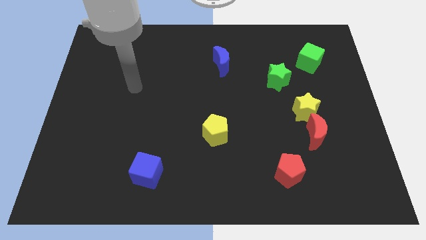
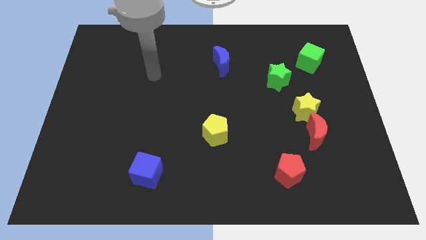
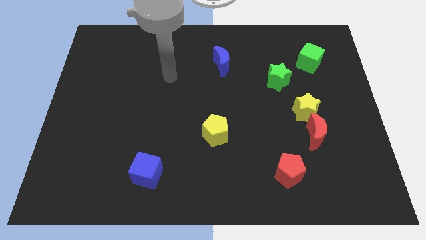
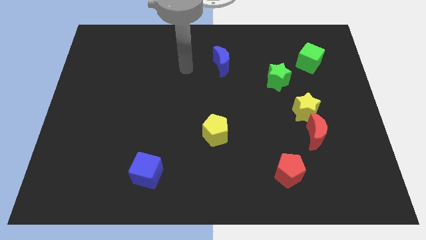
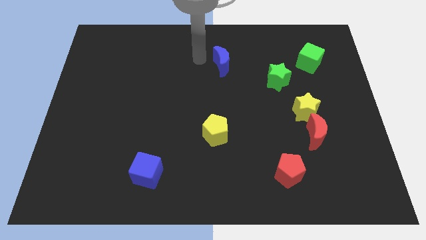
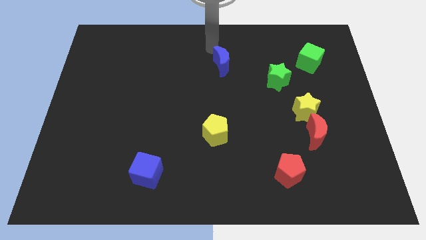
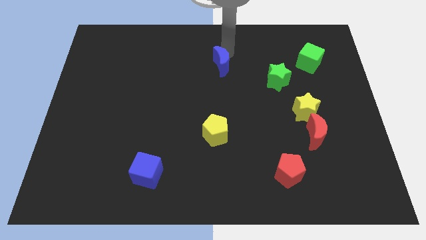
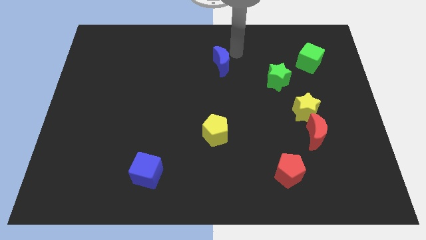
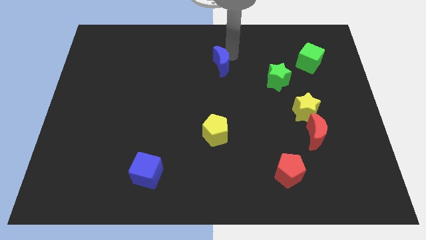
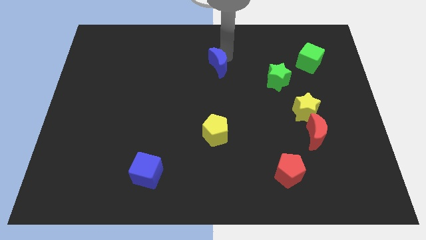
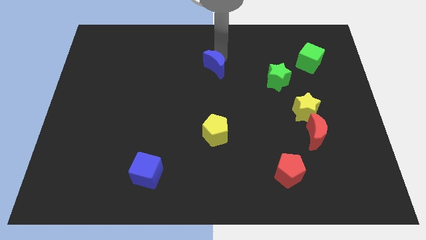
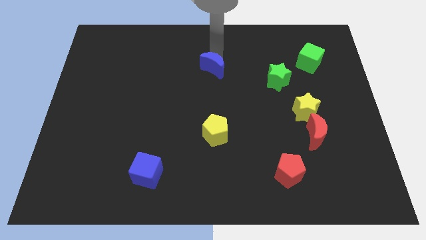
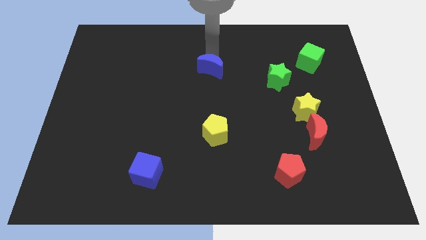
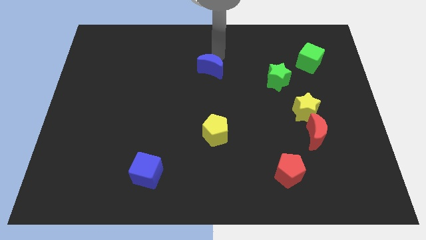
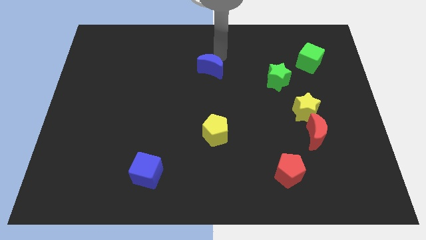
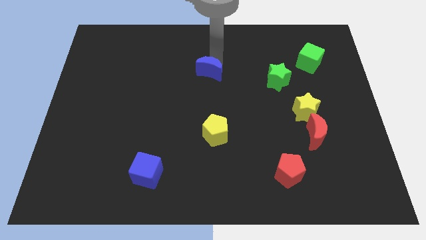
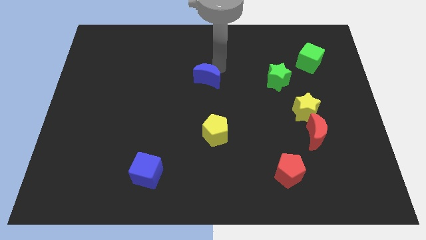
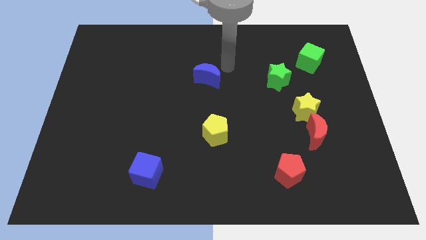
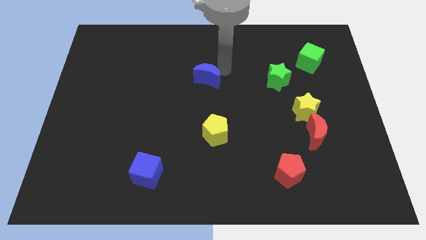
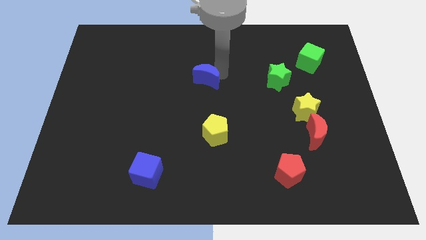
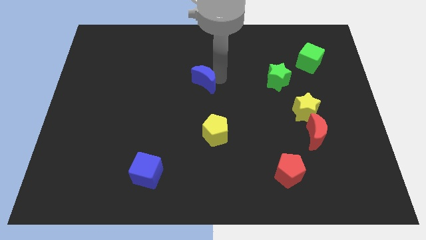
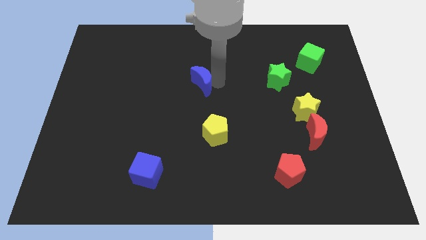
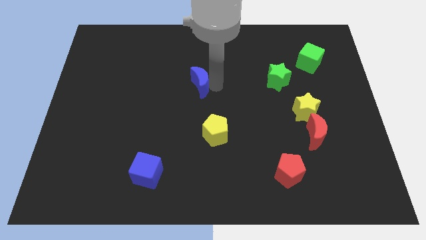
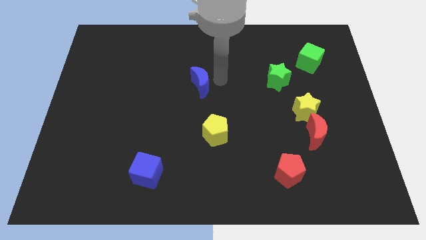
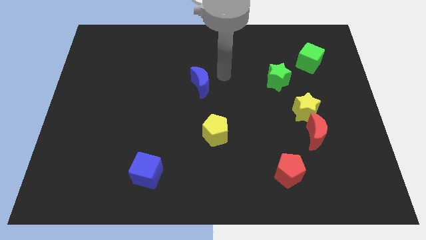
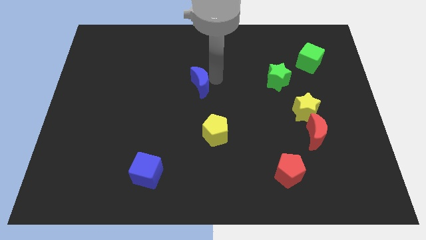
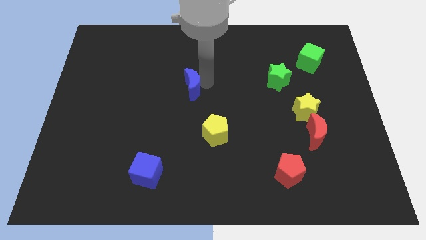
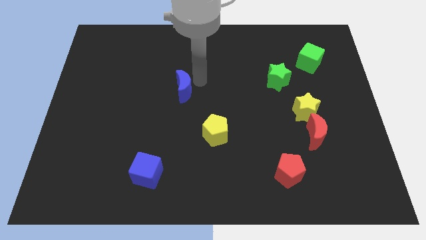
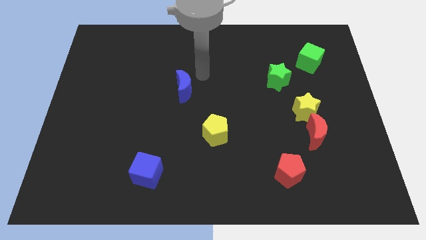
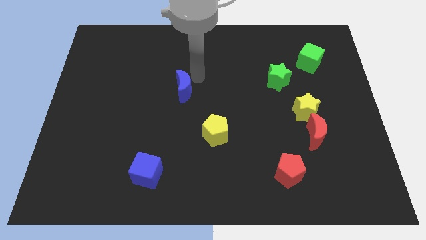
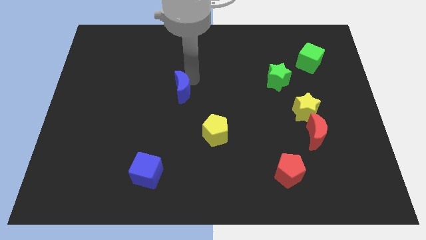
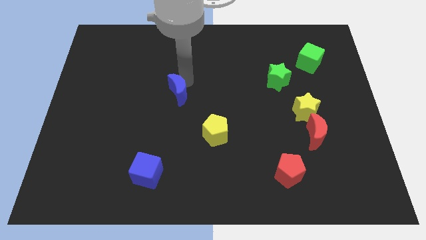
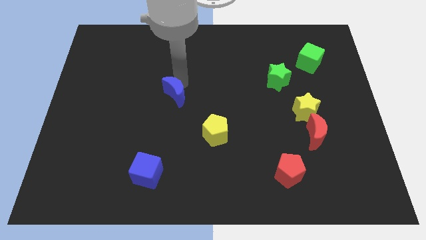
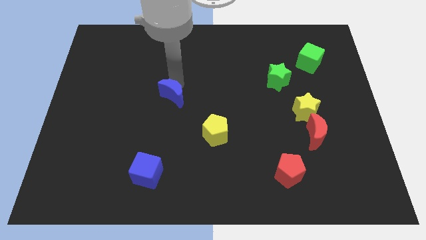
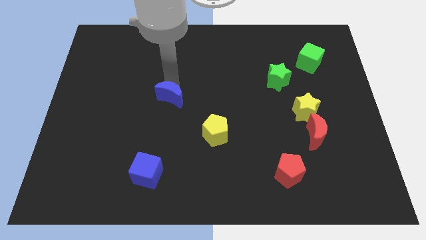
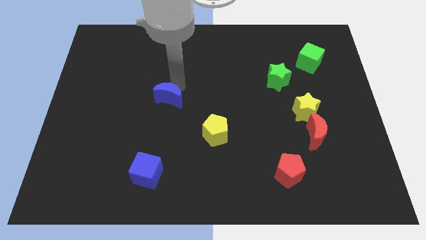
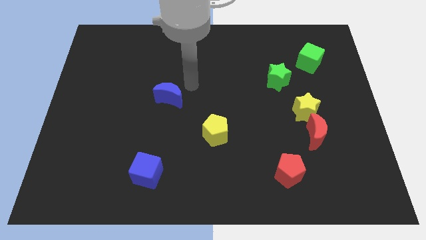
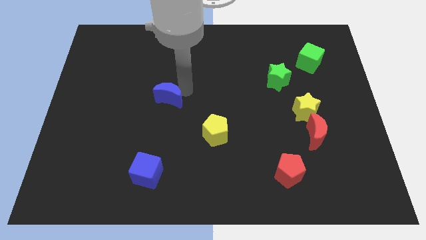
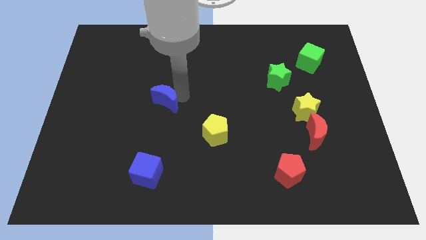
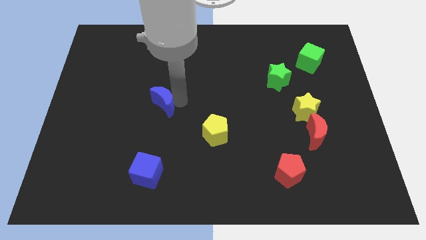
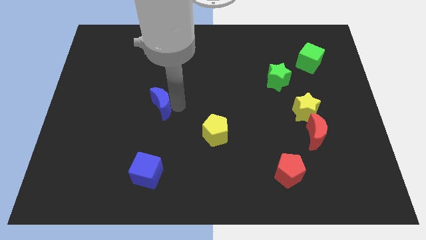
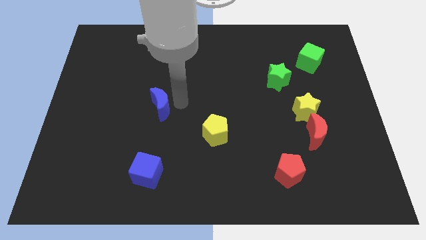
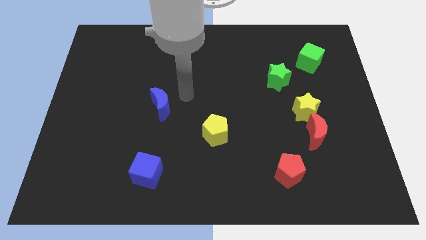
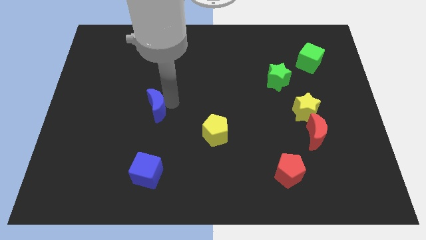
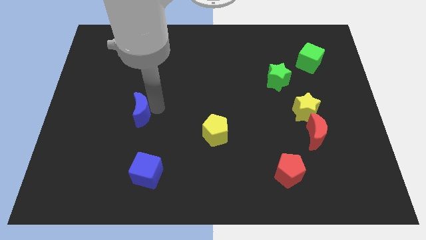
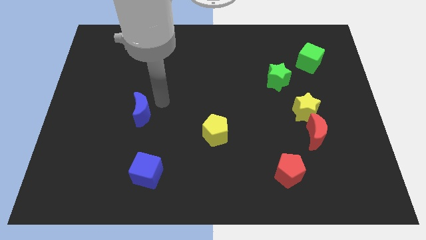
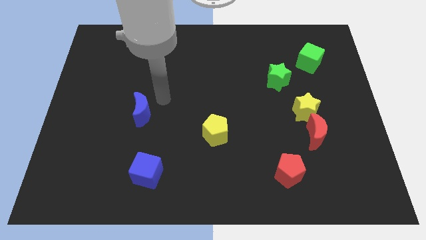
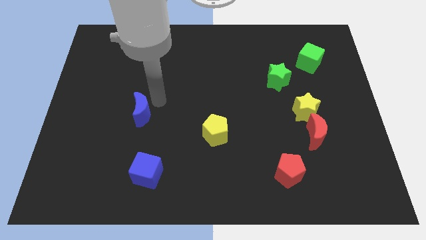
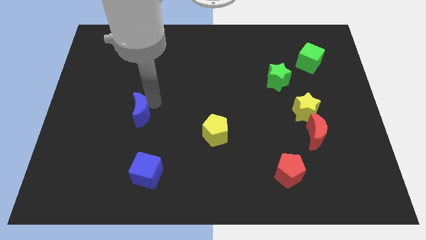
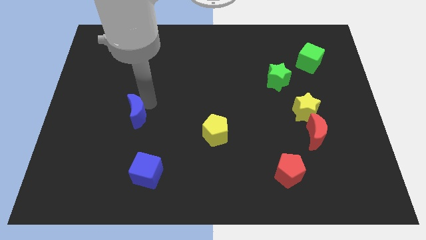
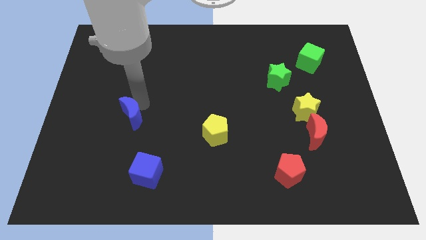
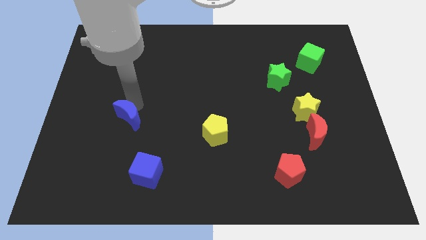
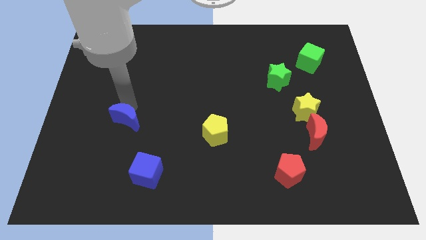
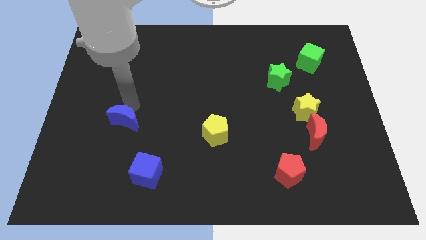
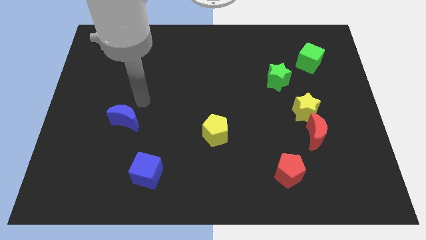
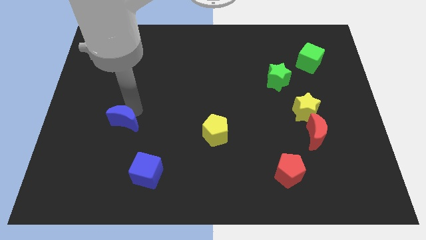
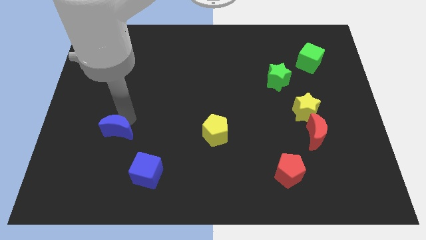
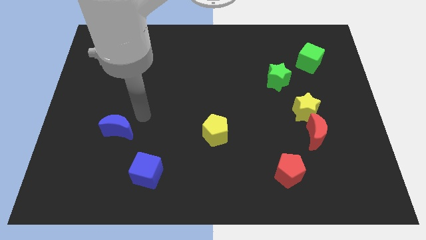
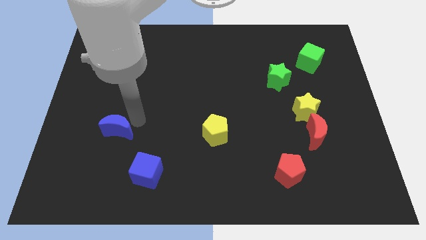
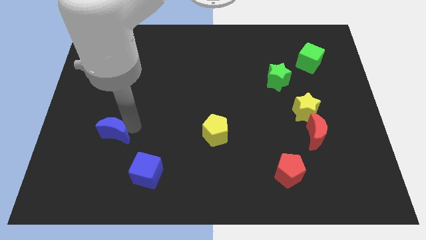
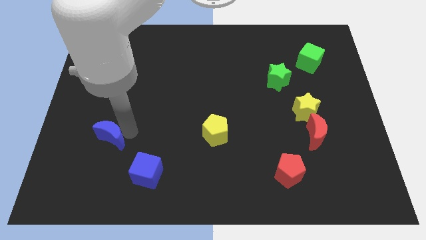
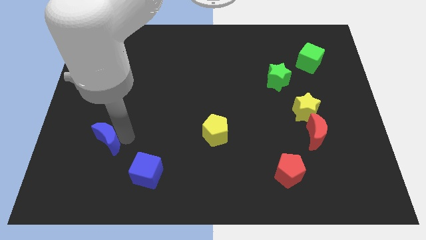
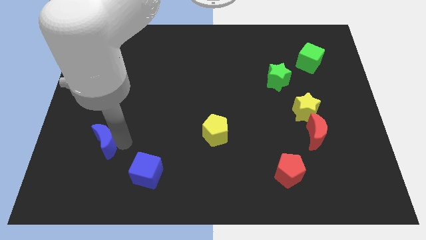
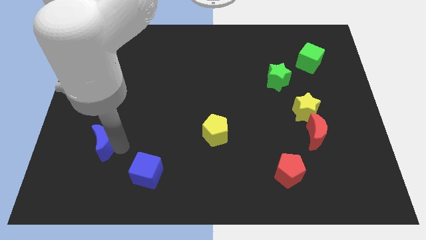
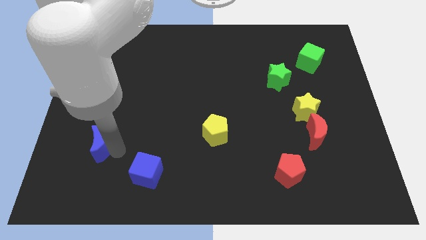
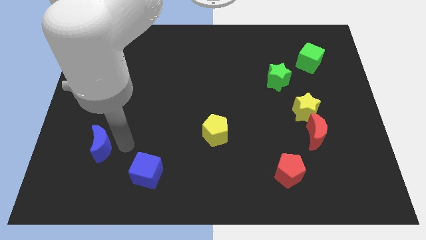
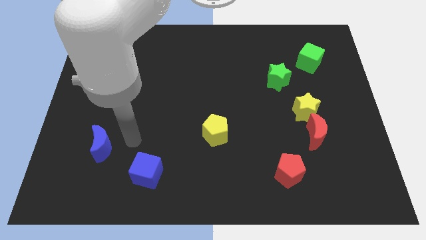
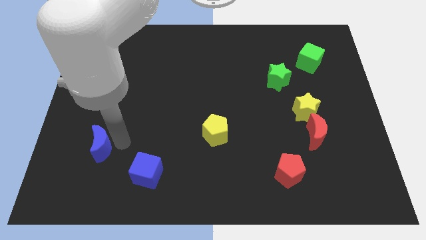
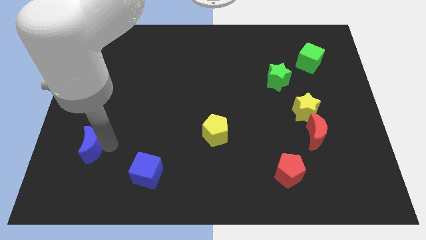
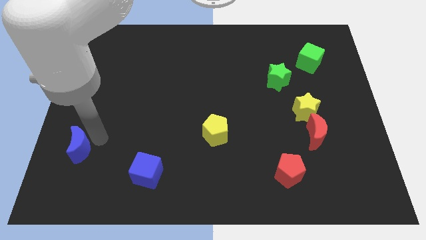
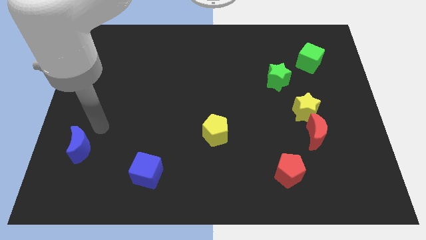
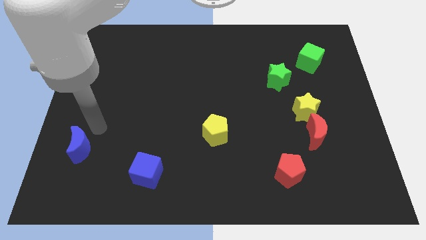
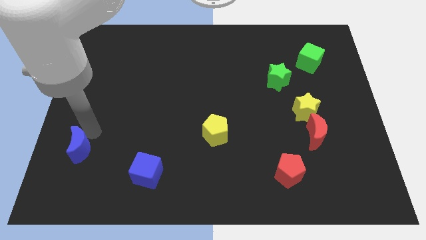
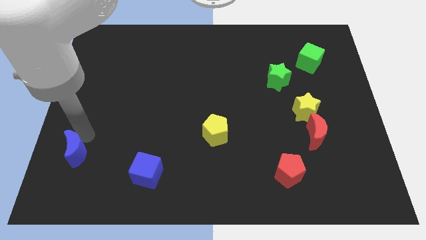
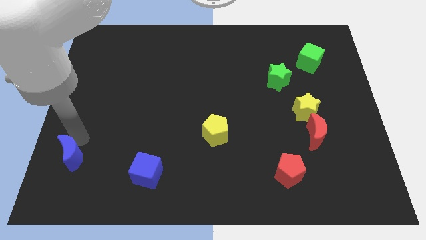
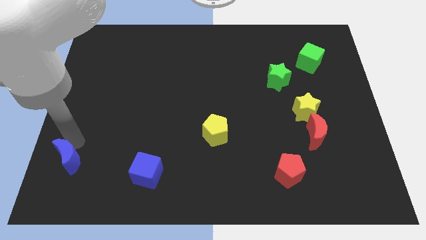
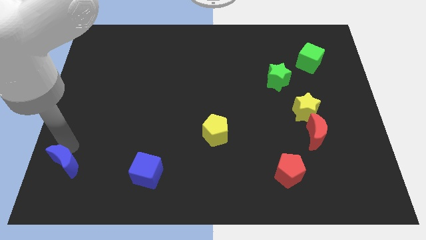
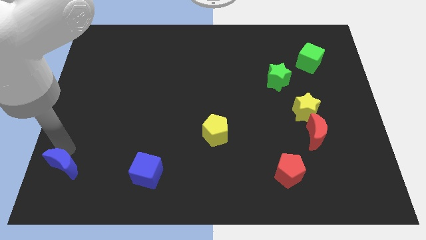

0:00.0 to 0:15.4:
push the blue moon to the lower left corner
